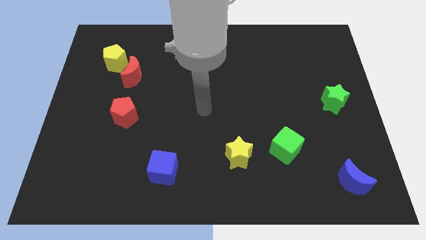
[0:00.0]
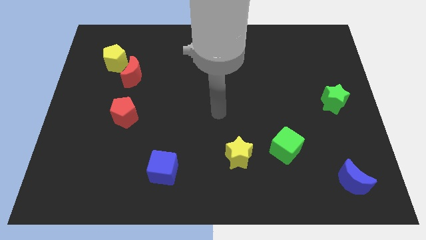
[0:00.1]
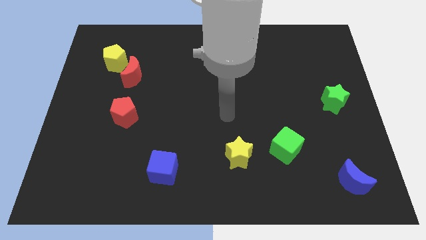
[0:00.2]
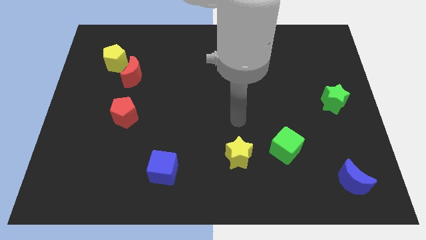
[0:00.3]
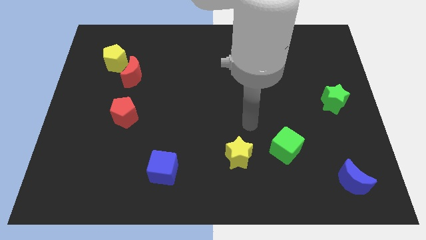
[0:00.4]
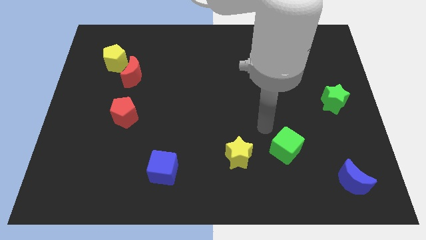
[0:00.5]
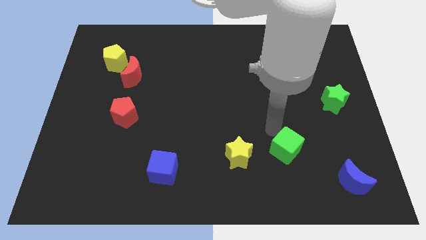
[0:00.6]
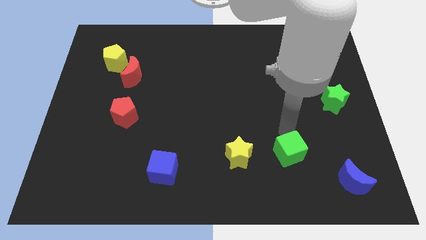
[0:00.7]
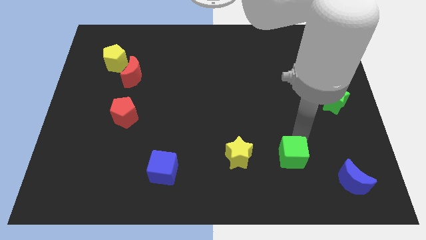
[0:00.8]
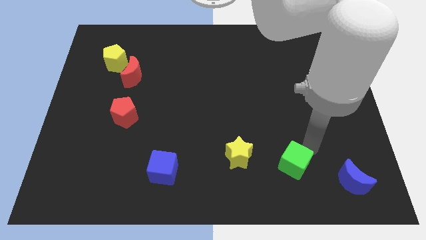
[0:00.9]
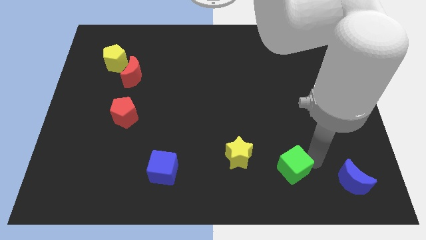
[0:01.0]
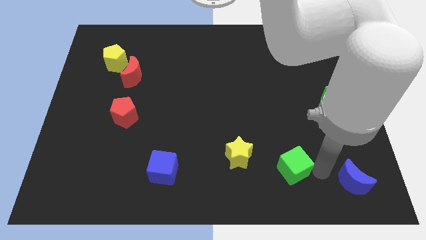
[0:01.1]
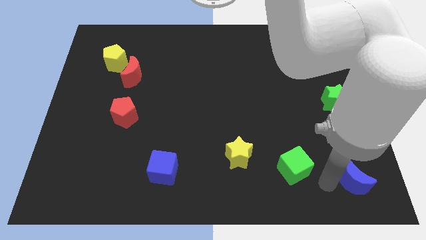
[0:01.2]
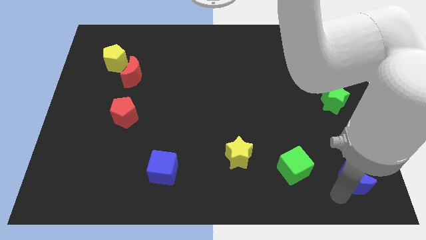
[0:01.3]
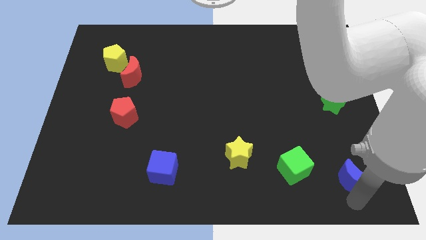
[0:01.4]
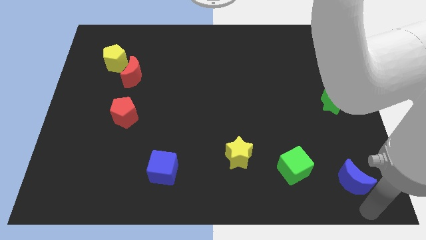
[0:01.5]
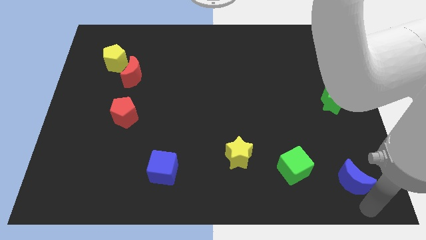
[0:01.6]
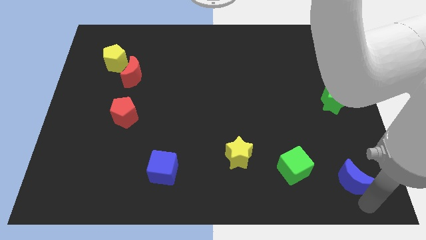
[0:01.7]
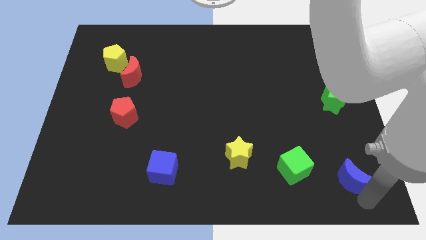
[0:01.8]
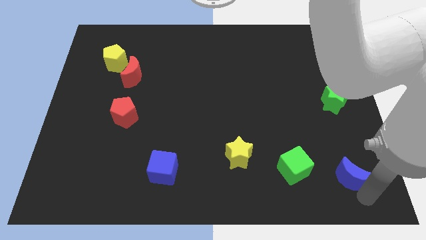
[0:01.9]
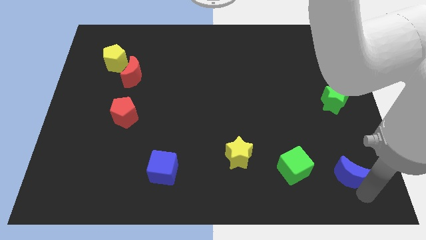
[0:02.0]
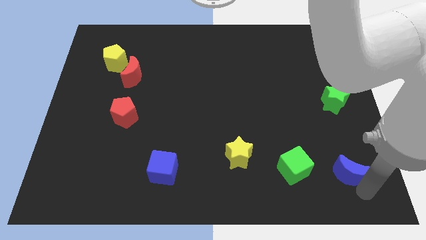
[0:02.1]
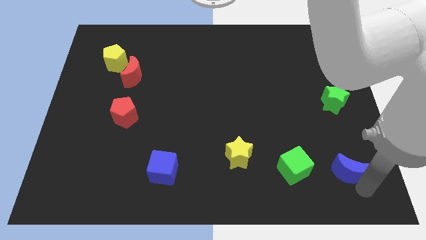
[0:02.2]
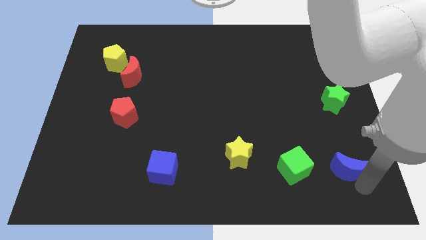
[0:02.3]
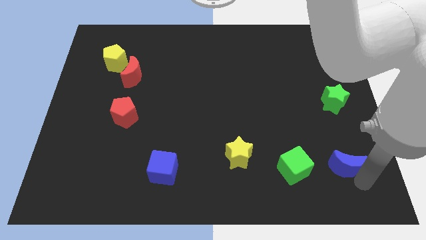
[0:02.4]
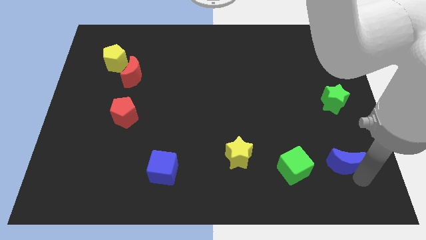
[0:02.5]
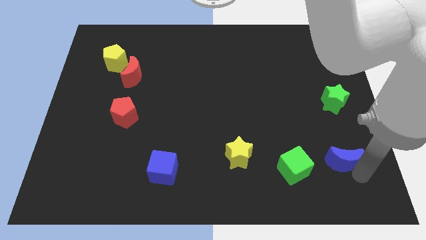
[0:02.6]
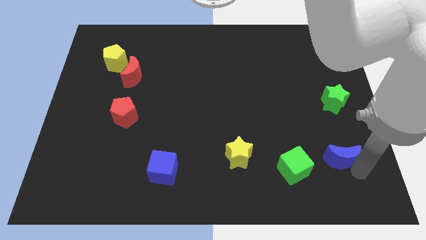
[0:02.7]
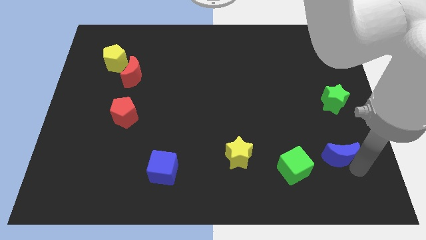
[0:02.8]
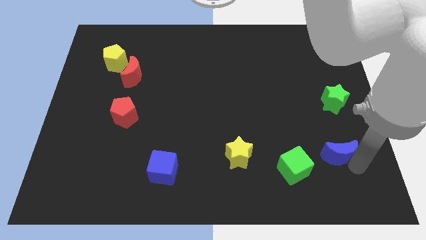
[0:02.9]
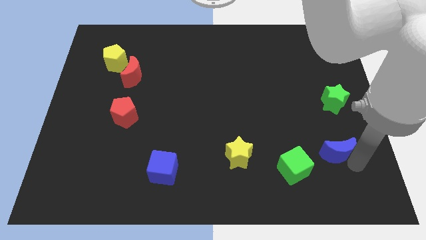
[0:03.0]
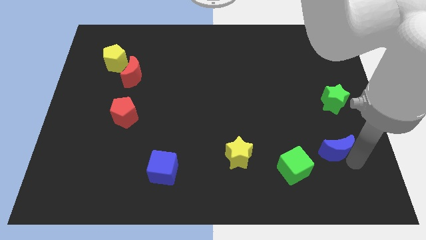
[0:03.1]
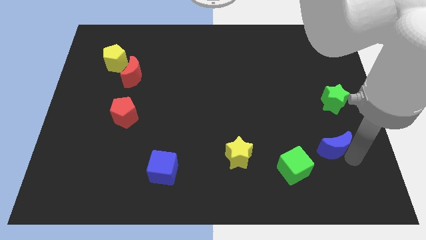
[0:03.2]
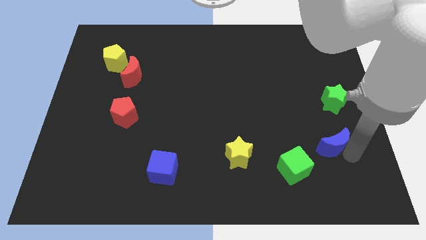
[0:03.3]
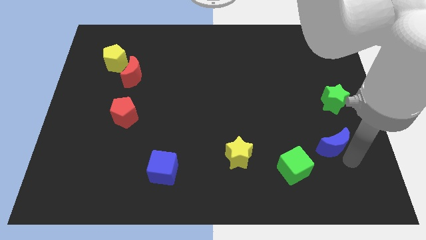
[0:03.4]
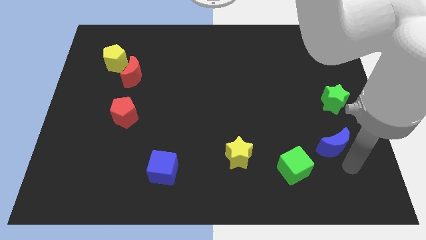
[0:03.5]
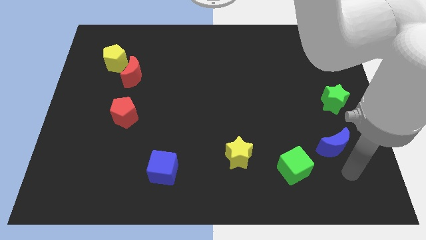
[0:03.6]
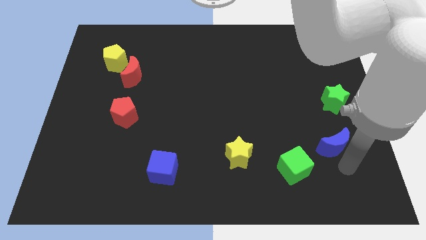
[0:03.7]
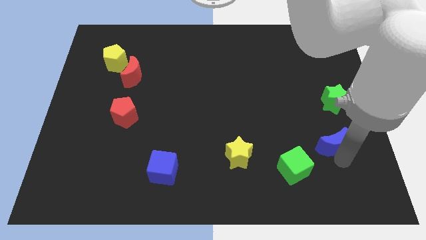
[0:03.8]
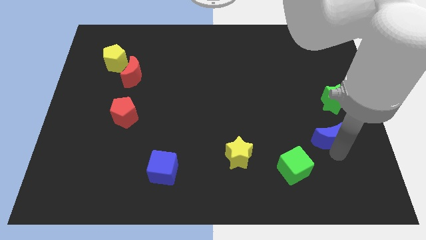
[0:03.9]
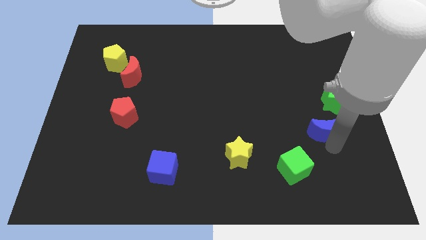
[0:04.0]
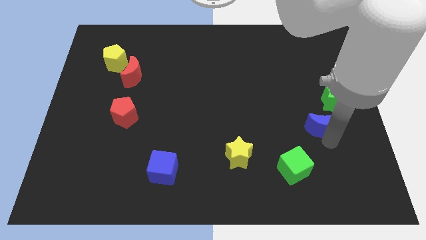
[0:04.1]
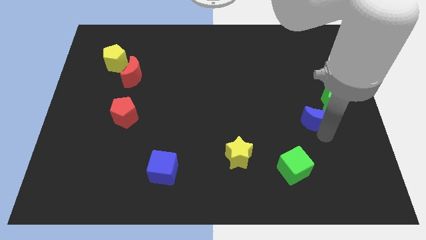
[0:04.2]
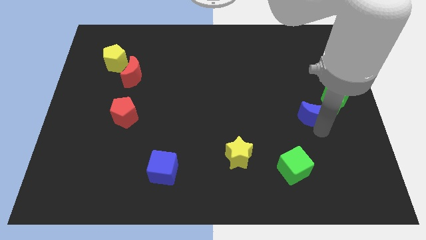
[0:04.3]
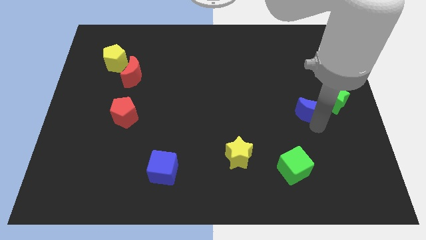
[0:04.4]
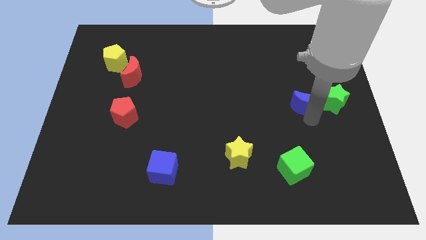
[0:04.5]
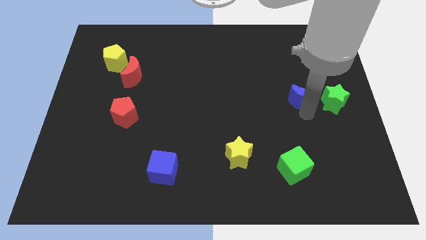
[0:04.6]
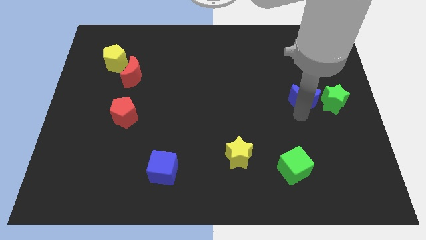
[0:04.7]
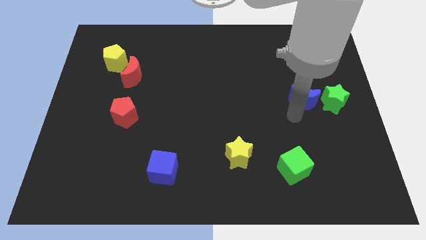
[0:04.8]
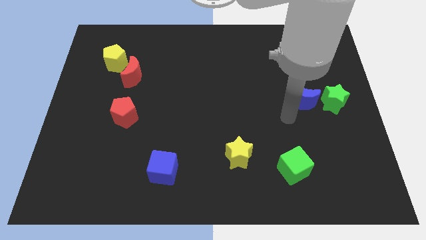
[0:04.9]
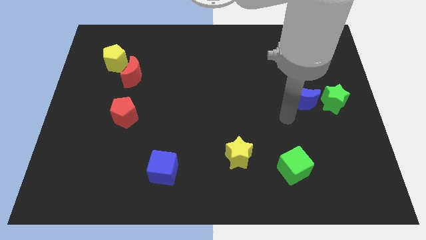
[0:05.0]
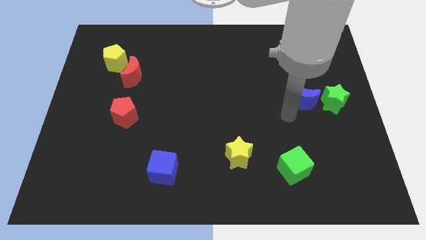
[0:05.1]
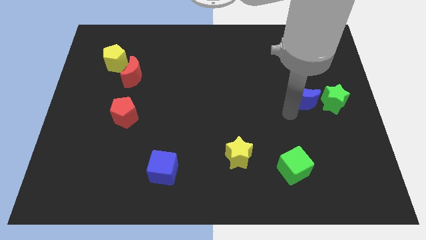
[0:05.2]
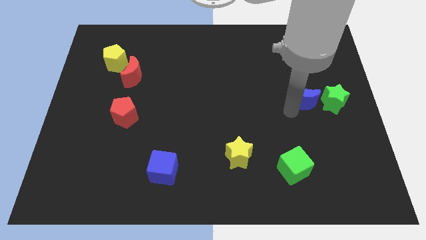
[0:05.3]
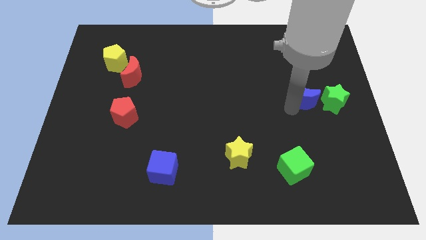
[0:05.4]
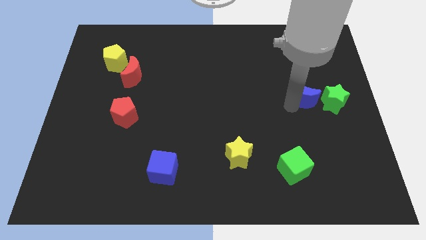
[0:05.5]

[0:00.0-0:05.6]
slide the blue moon upwards

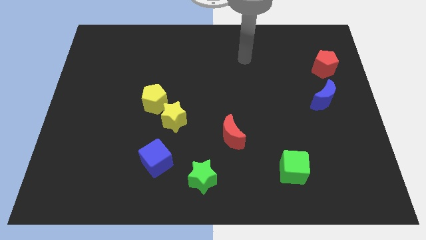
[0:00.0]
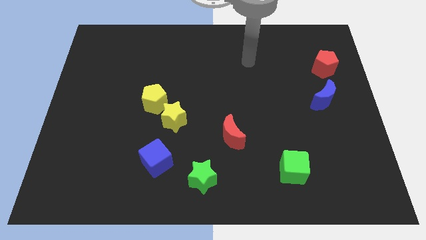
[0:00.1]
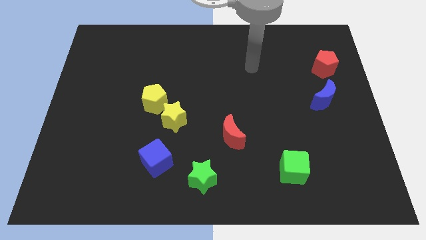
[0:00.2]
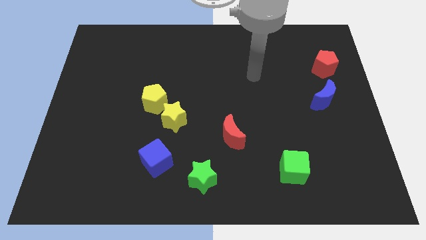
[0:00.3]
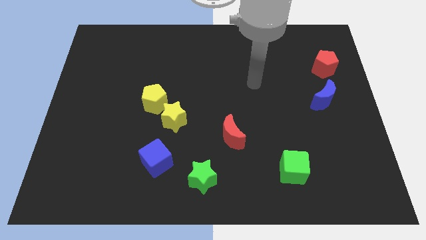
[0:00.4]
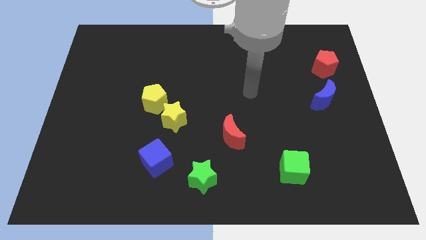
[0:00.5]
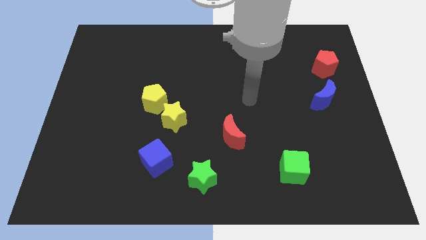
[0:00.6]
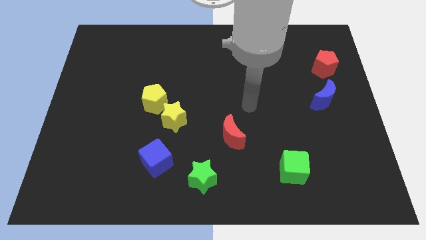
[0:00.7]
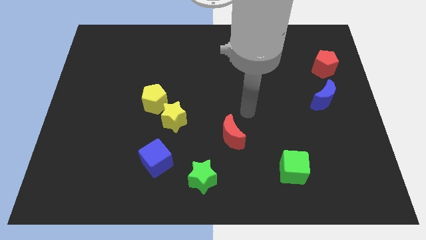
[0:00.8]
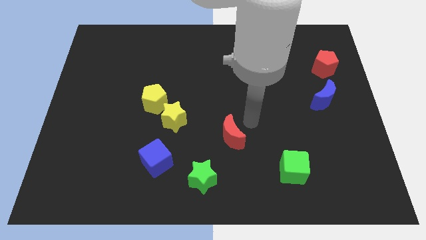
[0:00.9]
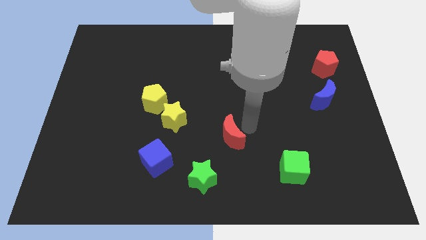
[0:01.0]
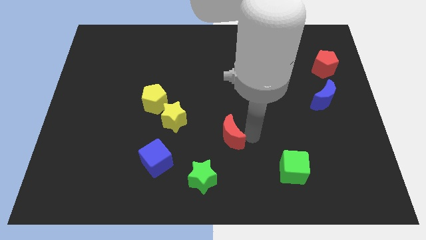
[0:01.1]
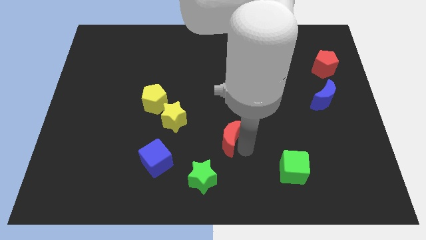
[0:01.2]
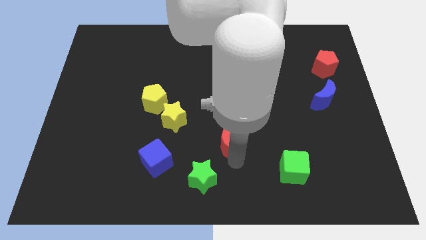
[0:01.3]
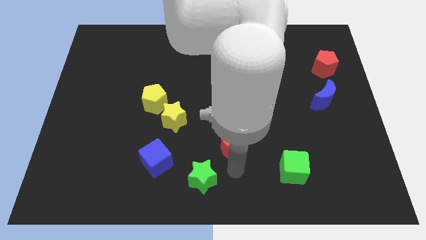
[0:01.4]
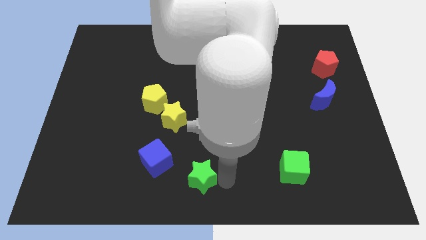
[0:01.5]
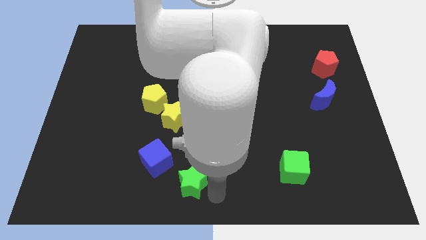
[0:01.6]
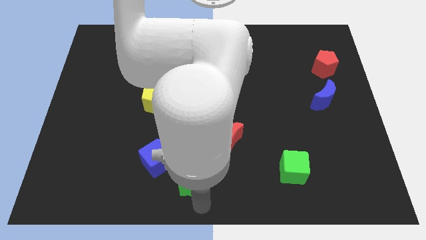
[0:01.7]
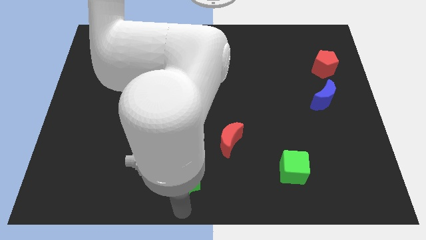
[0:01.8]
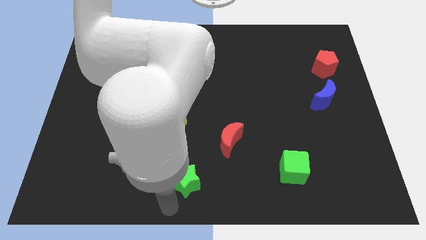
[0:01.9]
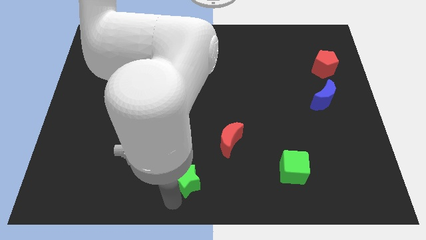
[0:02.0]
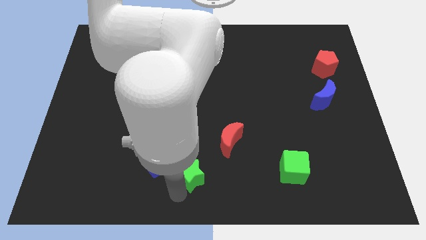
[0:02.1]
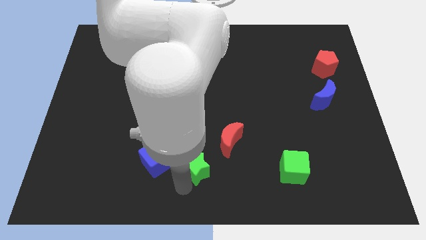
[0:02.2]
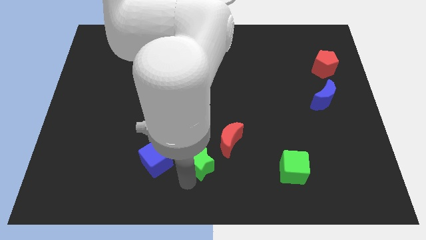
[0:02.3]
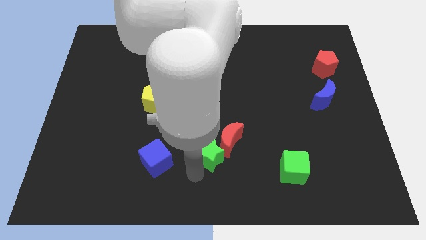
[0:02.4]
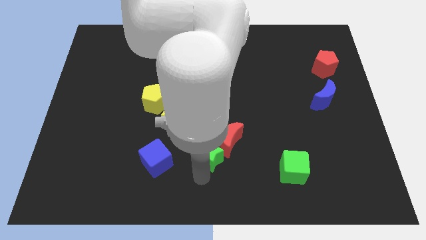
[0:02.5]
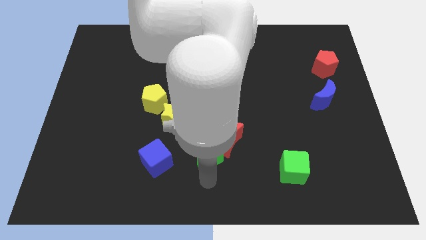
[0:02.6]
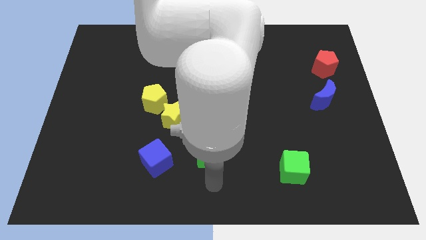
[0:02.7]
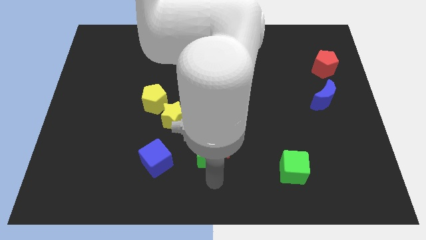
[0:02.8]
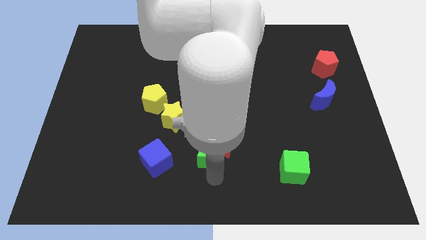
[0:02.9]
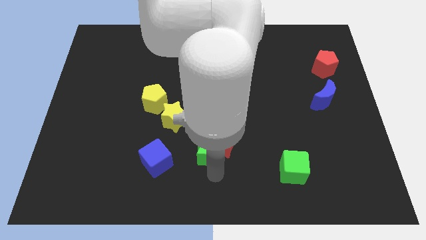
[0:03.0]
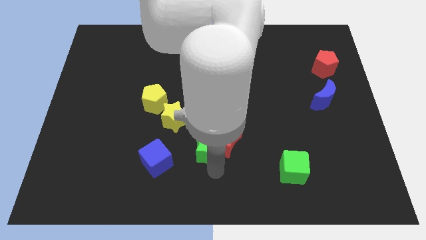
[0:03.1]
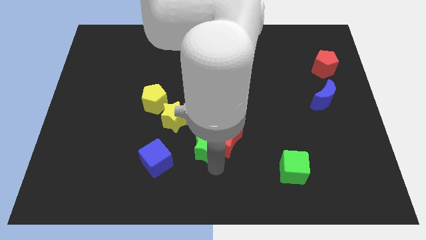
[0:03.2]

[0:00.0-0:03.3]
slide the green star upwards a little bit
